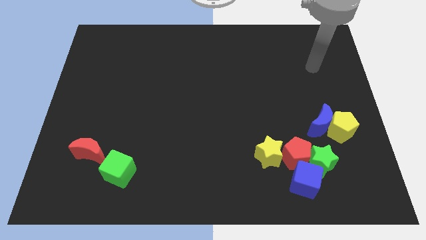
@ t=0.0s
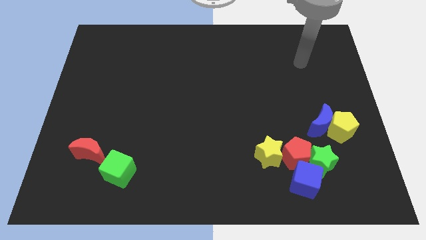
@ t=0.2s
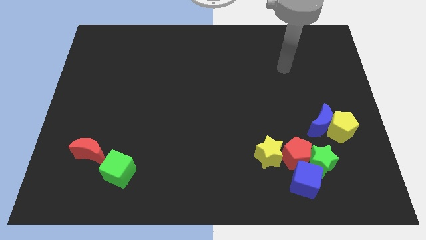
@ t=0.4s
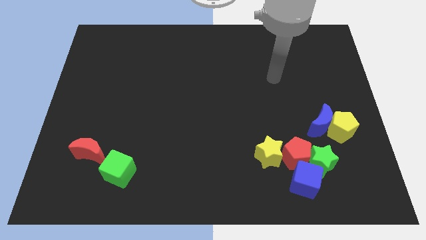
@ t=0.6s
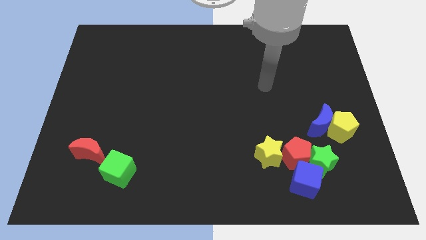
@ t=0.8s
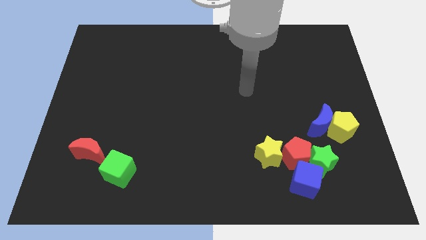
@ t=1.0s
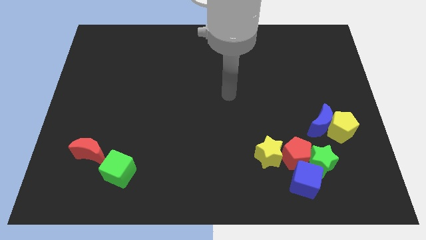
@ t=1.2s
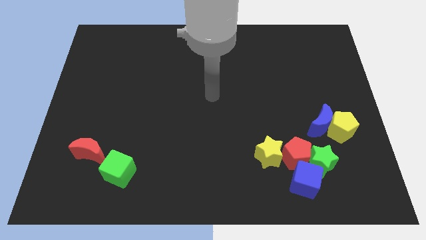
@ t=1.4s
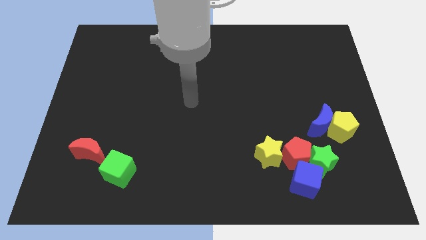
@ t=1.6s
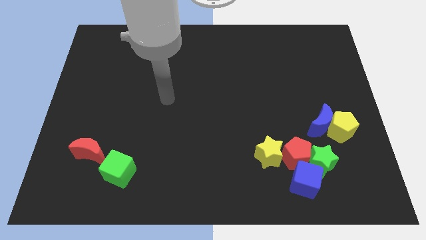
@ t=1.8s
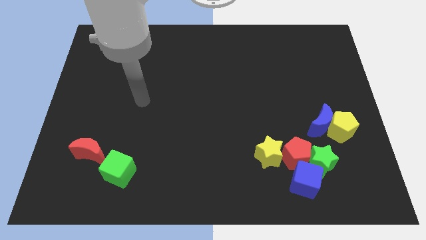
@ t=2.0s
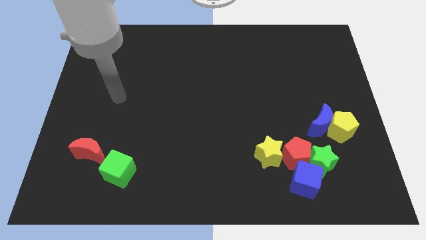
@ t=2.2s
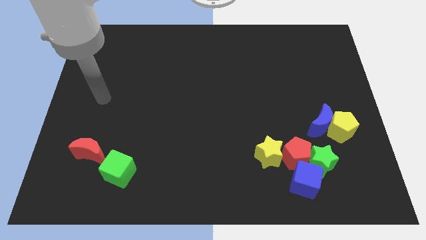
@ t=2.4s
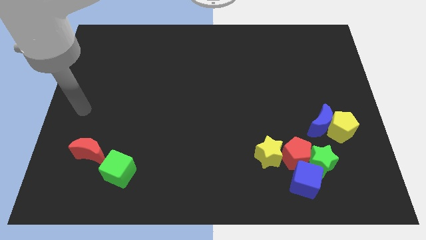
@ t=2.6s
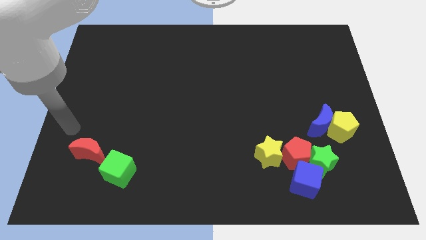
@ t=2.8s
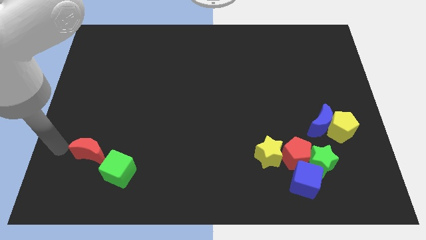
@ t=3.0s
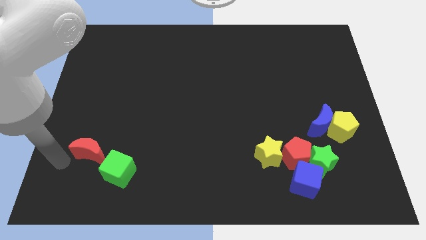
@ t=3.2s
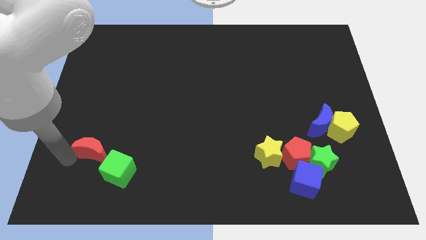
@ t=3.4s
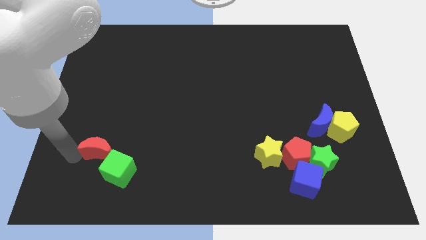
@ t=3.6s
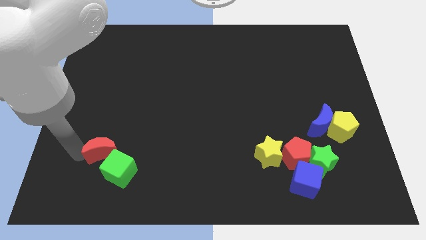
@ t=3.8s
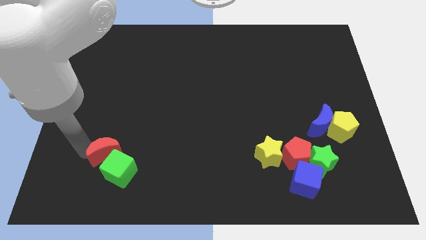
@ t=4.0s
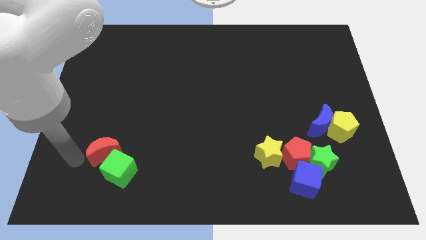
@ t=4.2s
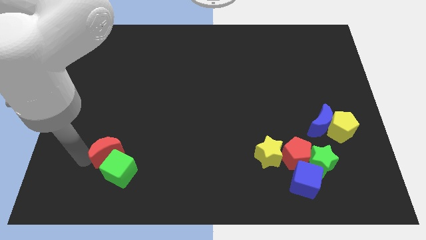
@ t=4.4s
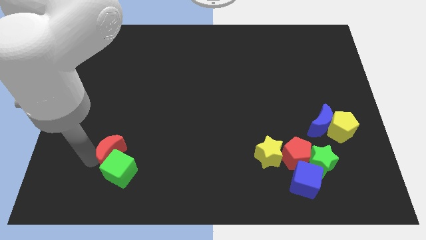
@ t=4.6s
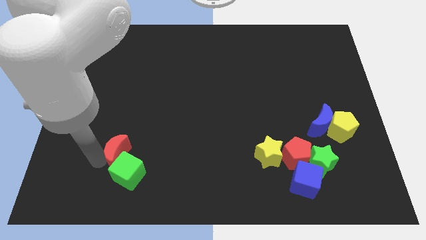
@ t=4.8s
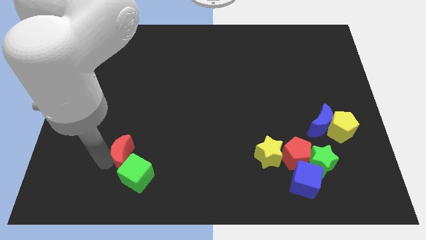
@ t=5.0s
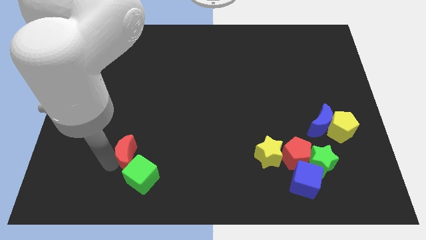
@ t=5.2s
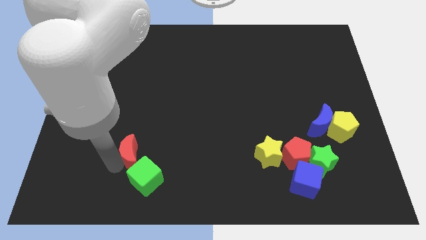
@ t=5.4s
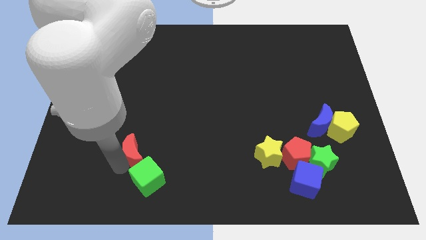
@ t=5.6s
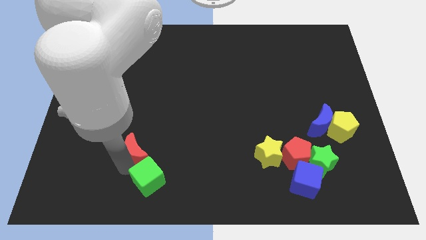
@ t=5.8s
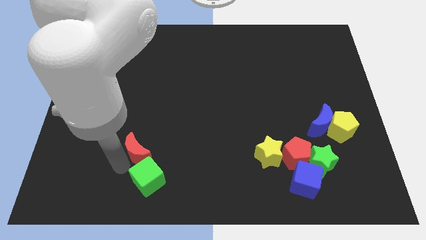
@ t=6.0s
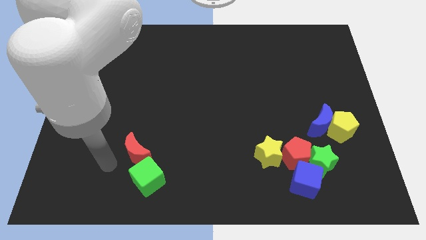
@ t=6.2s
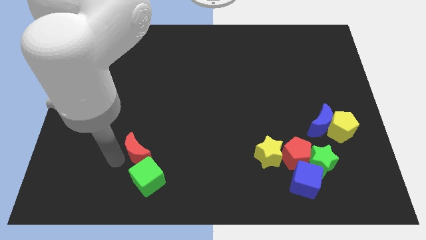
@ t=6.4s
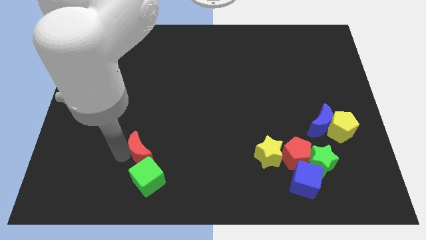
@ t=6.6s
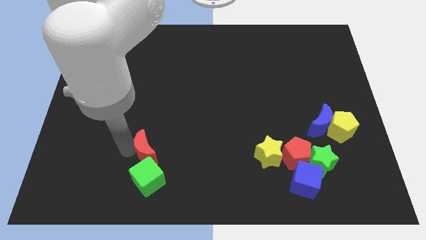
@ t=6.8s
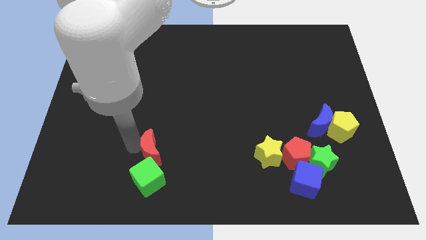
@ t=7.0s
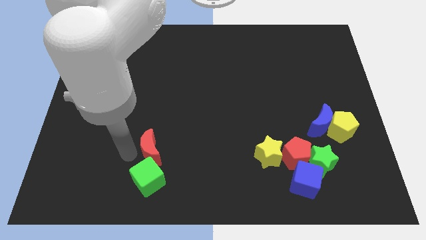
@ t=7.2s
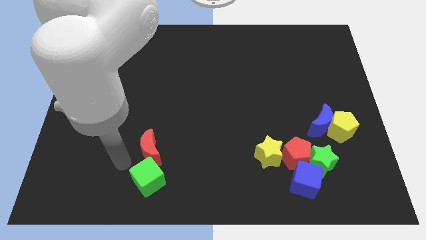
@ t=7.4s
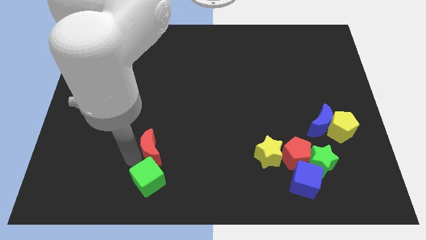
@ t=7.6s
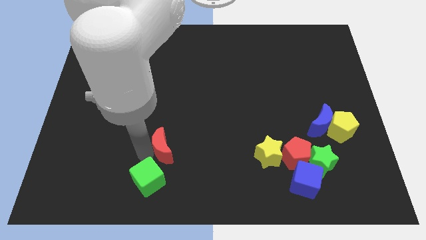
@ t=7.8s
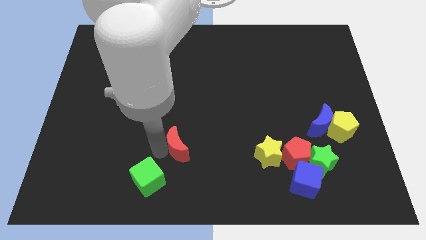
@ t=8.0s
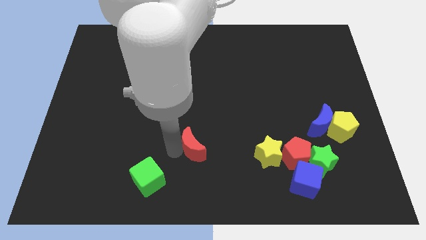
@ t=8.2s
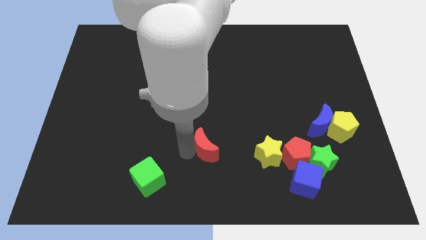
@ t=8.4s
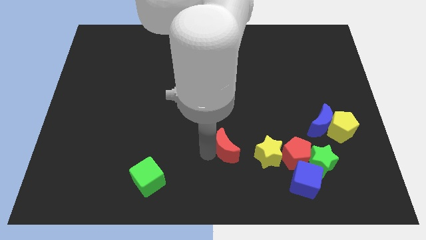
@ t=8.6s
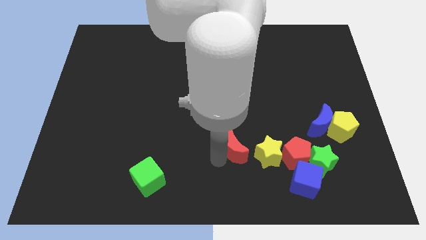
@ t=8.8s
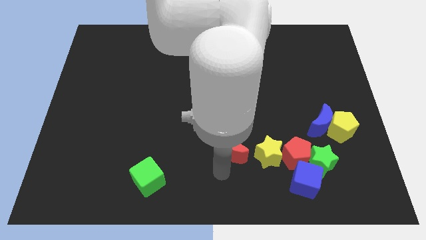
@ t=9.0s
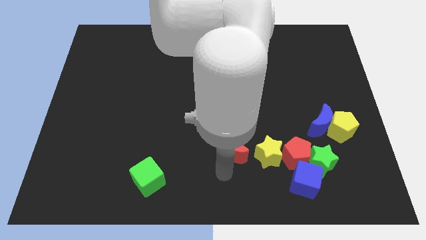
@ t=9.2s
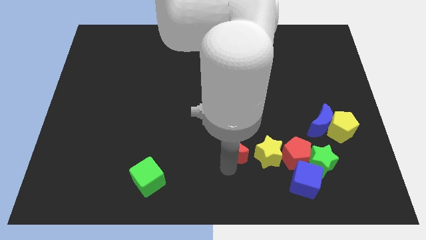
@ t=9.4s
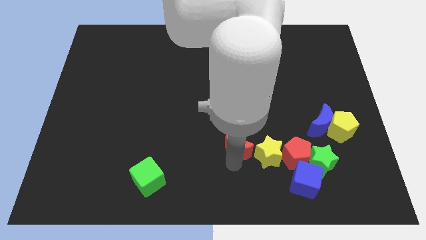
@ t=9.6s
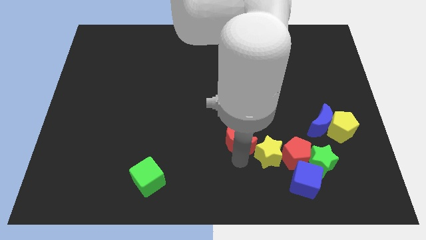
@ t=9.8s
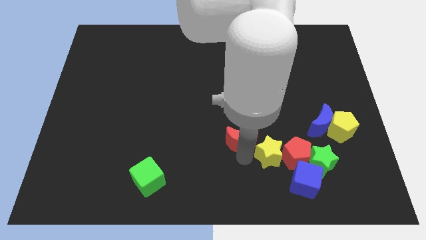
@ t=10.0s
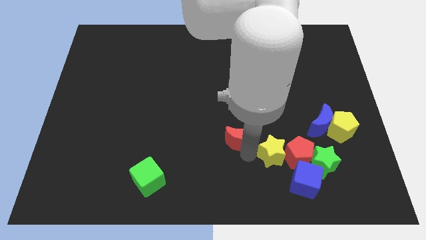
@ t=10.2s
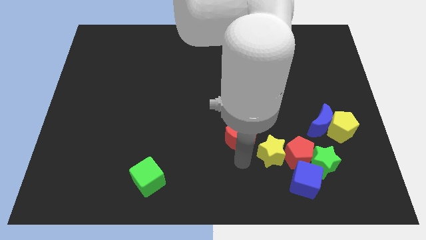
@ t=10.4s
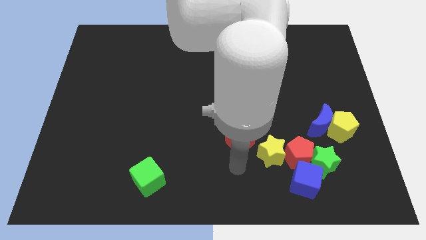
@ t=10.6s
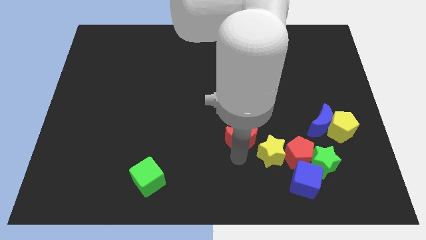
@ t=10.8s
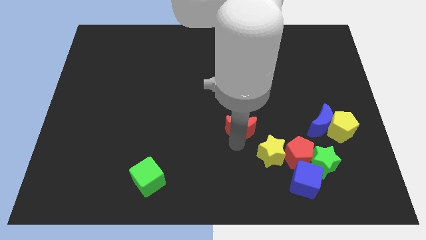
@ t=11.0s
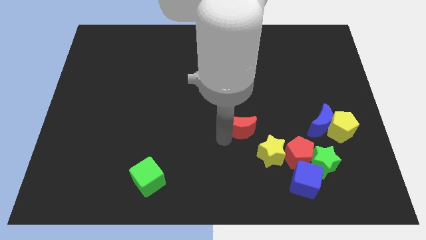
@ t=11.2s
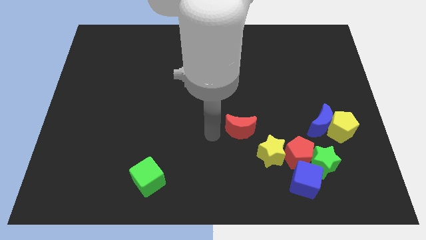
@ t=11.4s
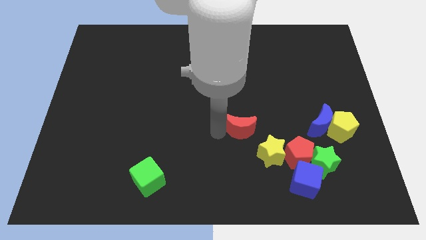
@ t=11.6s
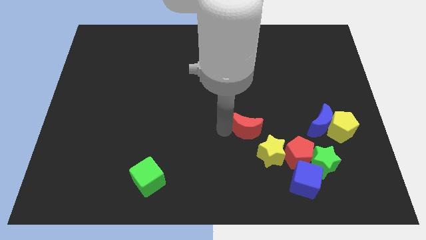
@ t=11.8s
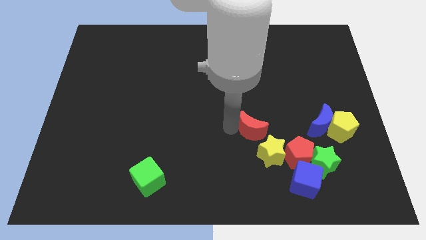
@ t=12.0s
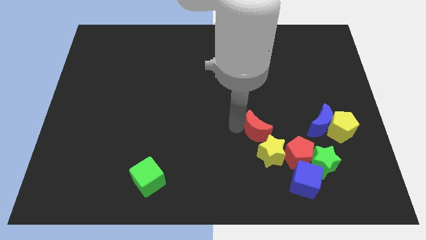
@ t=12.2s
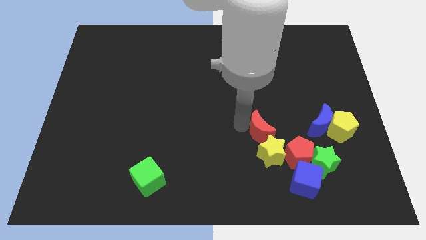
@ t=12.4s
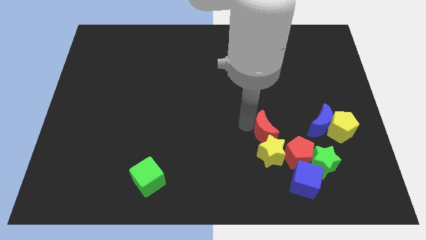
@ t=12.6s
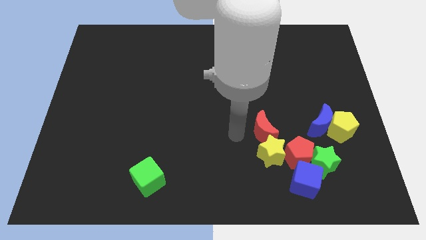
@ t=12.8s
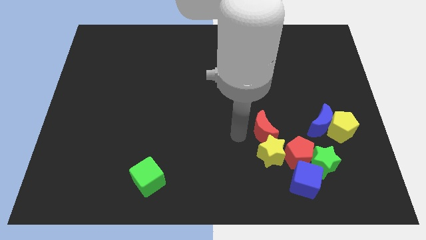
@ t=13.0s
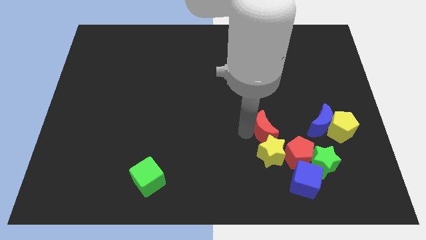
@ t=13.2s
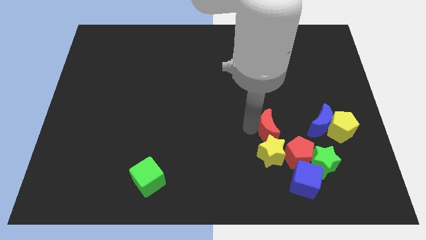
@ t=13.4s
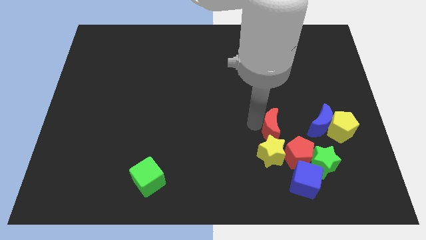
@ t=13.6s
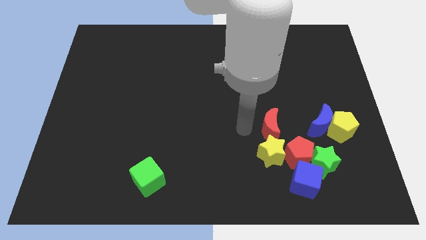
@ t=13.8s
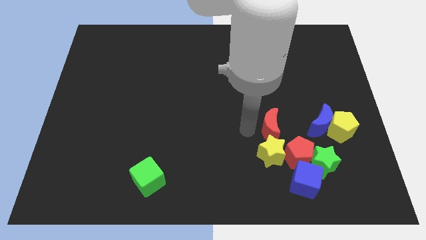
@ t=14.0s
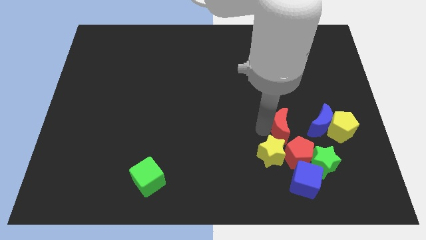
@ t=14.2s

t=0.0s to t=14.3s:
push the red moon to the top side of the blue cube

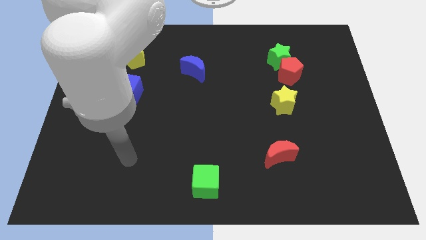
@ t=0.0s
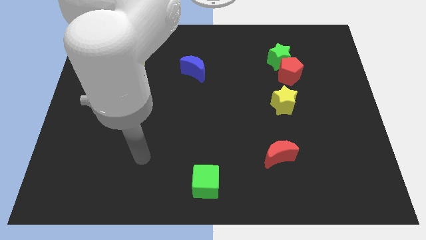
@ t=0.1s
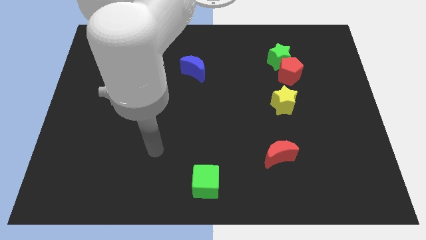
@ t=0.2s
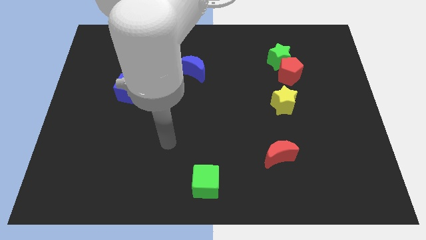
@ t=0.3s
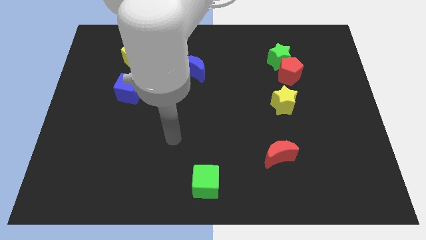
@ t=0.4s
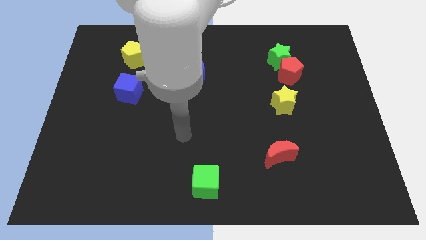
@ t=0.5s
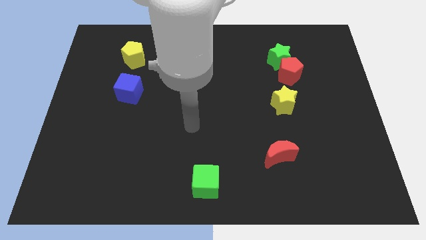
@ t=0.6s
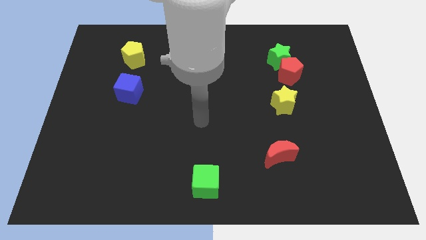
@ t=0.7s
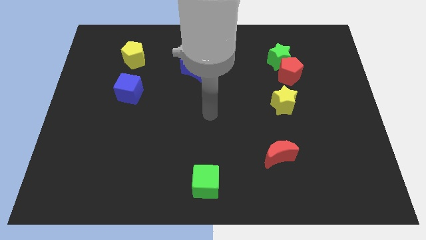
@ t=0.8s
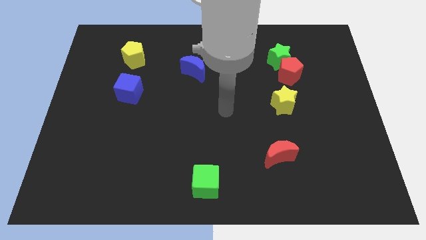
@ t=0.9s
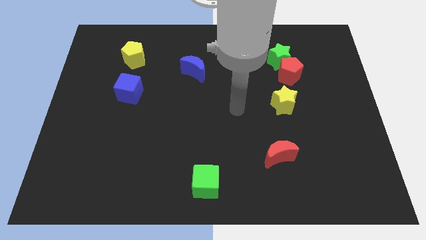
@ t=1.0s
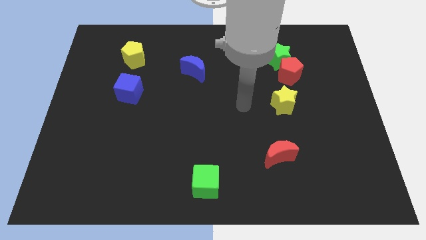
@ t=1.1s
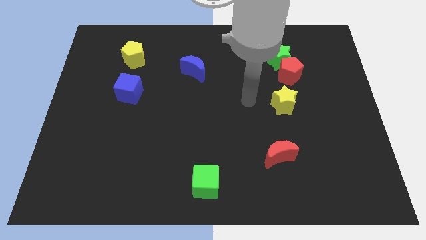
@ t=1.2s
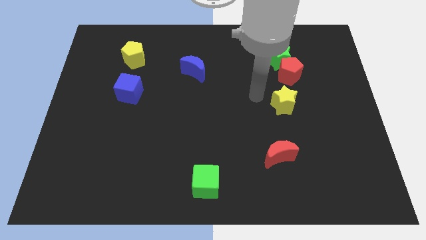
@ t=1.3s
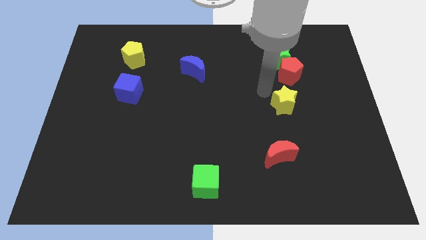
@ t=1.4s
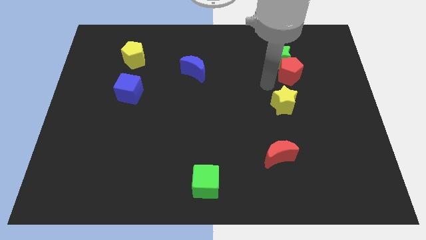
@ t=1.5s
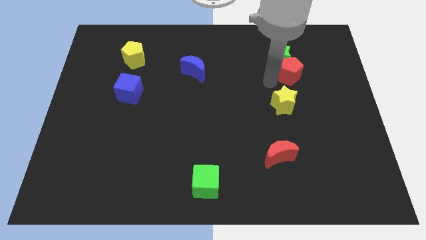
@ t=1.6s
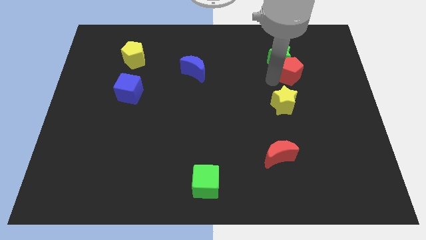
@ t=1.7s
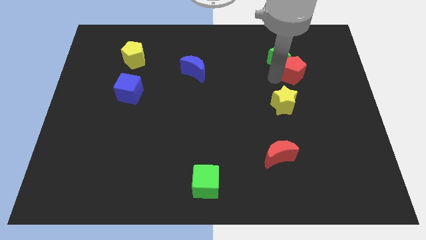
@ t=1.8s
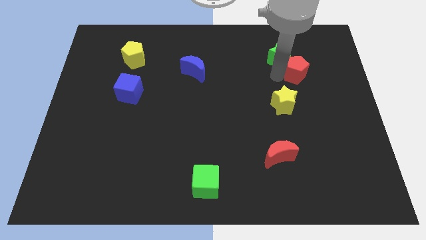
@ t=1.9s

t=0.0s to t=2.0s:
slide the red pentagon just right of the green star
